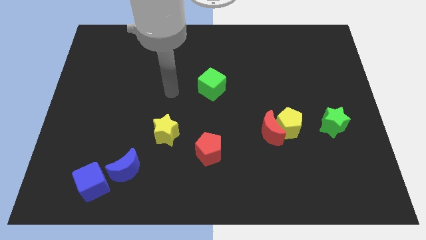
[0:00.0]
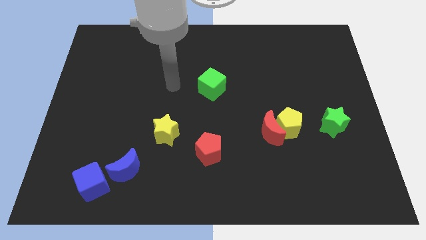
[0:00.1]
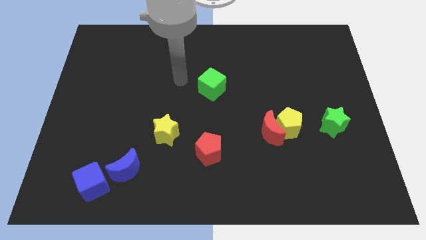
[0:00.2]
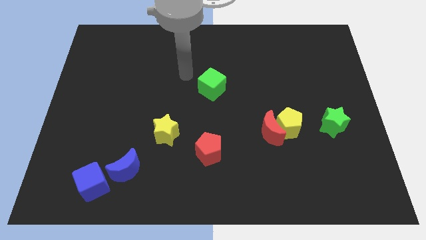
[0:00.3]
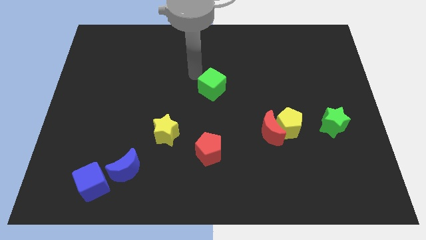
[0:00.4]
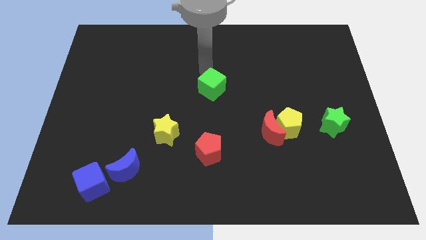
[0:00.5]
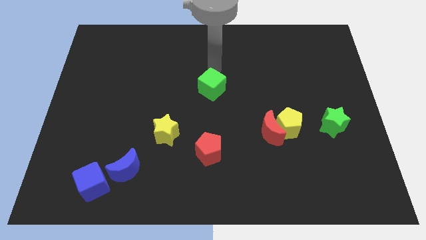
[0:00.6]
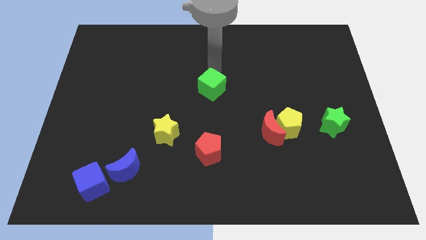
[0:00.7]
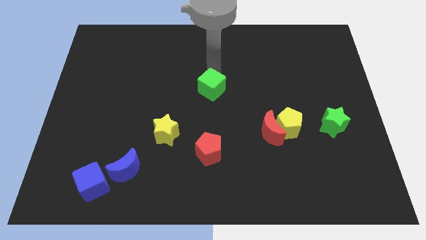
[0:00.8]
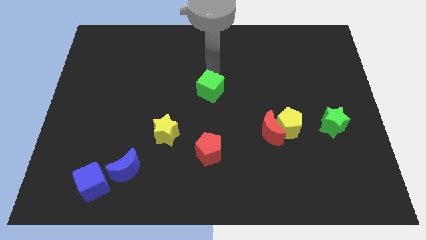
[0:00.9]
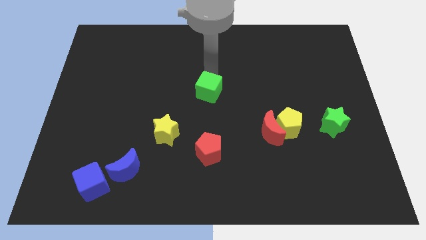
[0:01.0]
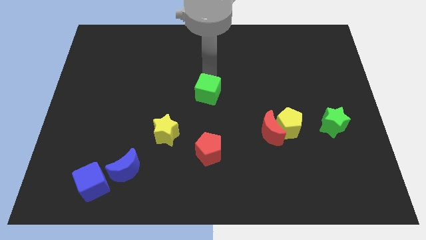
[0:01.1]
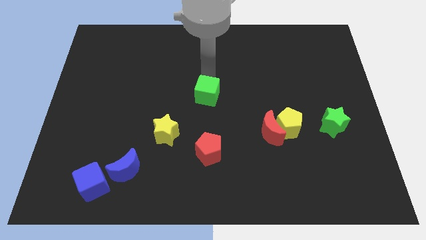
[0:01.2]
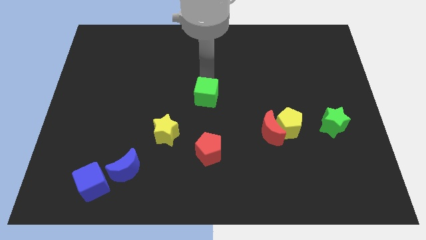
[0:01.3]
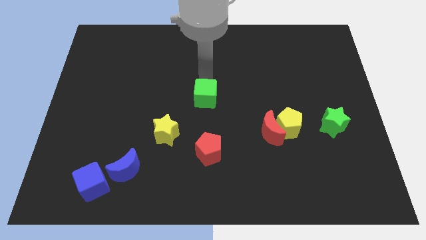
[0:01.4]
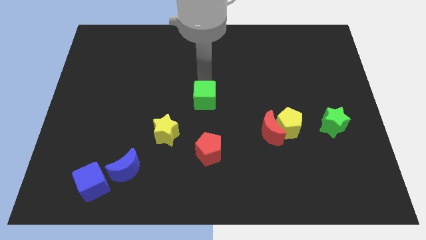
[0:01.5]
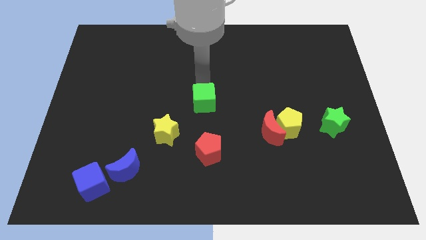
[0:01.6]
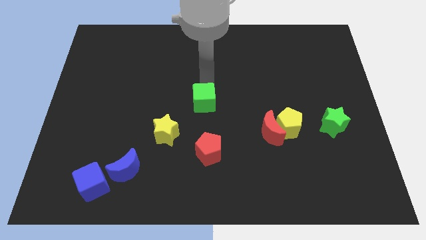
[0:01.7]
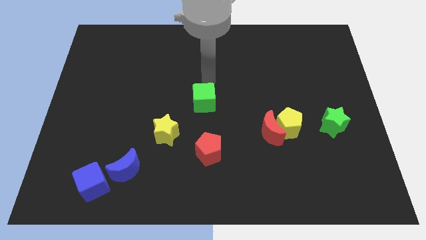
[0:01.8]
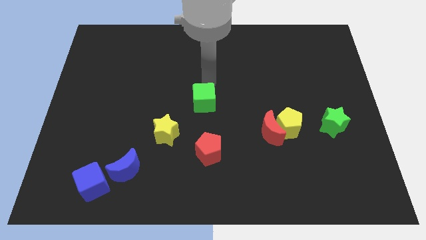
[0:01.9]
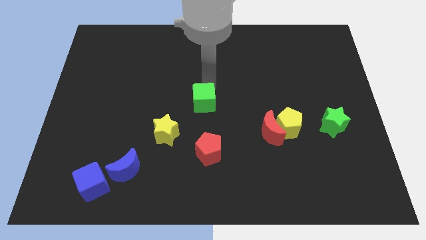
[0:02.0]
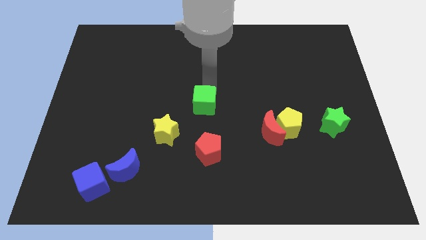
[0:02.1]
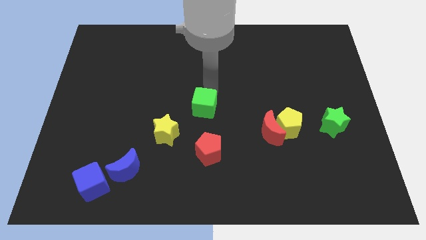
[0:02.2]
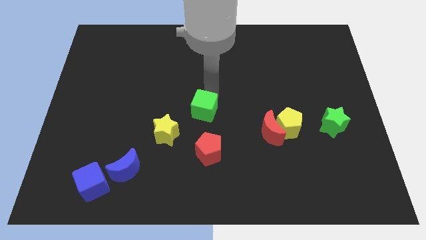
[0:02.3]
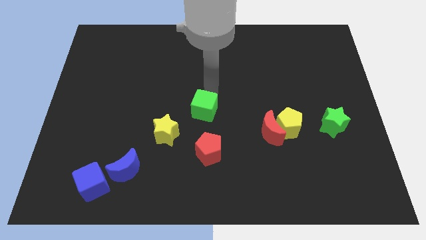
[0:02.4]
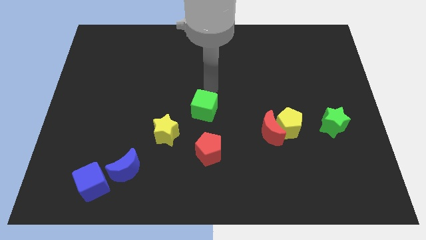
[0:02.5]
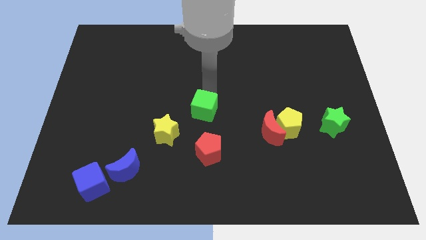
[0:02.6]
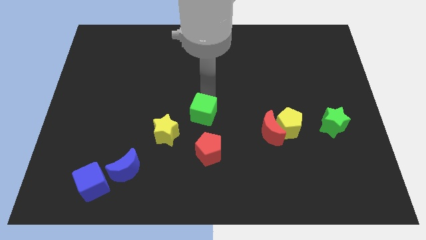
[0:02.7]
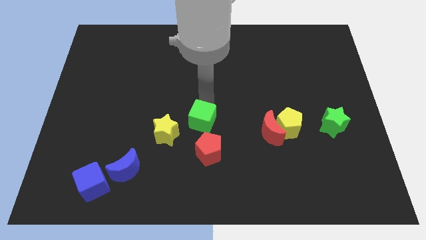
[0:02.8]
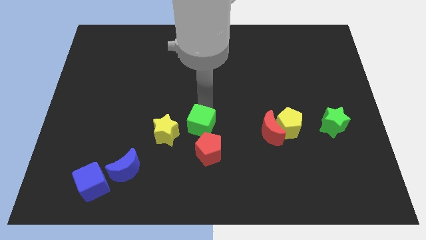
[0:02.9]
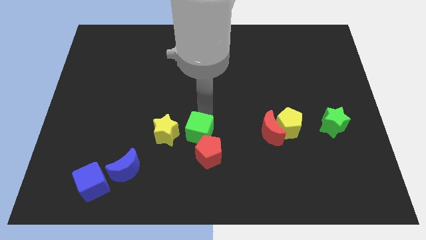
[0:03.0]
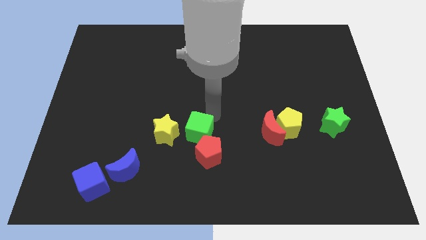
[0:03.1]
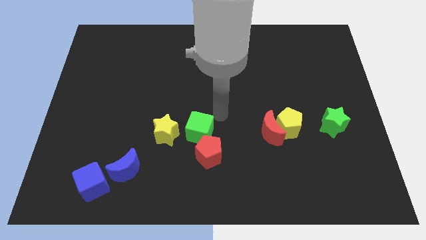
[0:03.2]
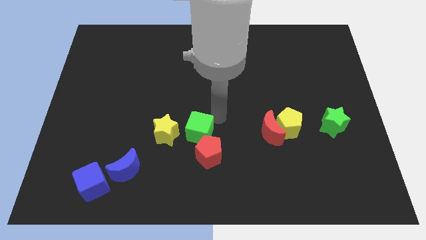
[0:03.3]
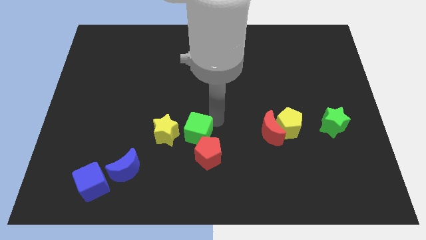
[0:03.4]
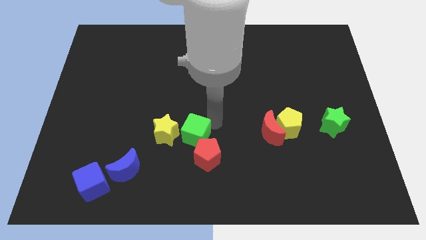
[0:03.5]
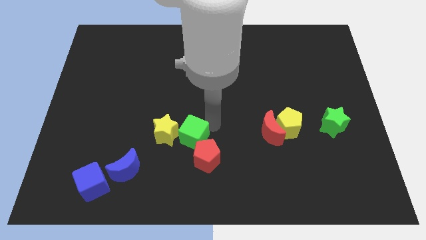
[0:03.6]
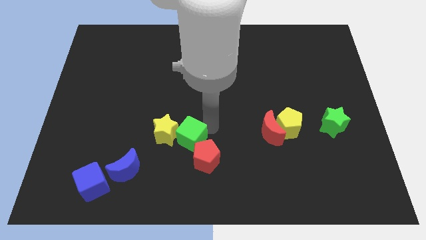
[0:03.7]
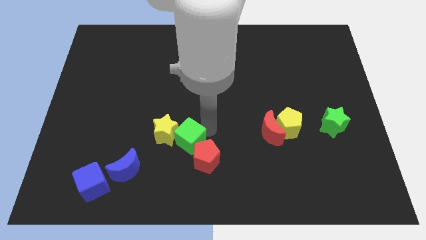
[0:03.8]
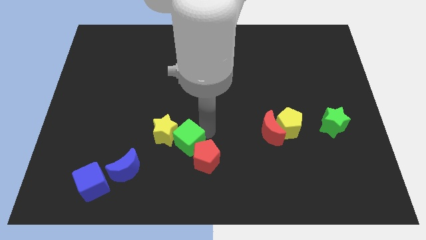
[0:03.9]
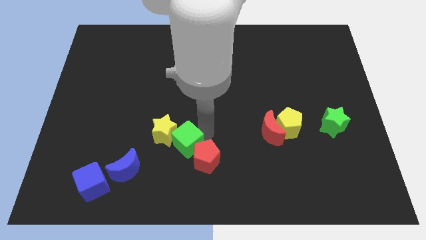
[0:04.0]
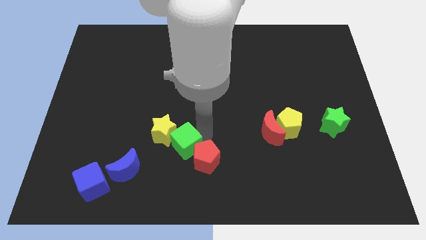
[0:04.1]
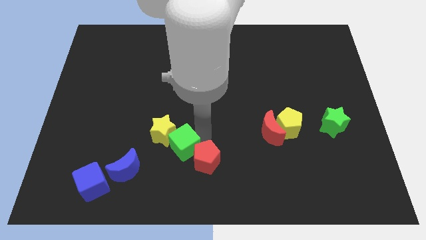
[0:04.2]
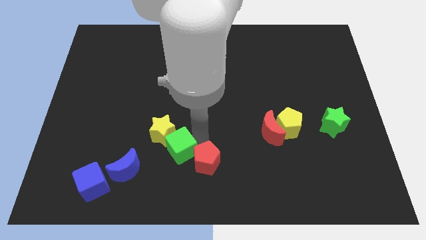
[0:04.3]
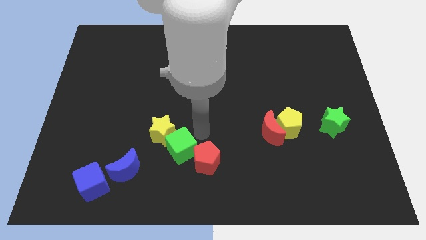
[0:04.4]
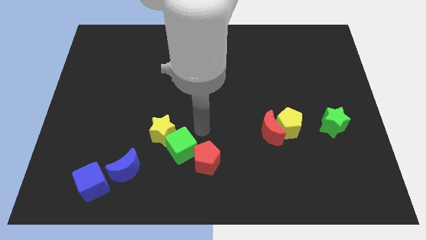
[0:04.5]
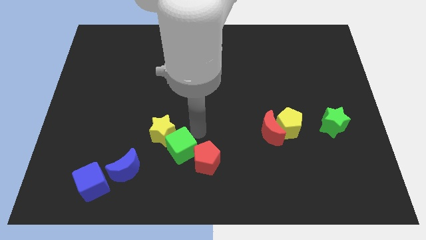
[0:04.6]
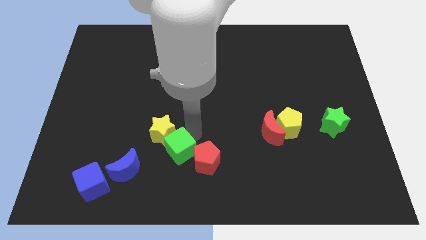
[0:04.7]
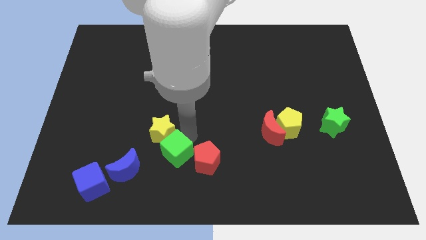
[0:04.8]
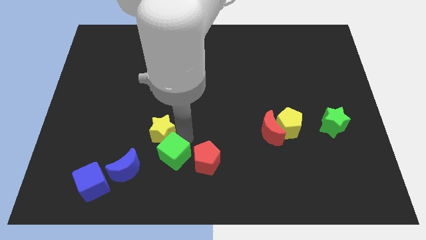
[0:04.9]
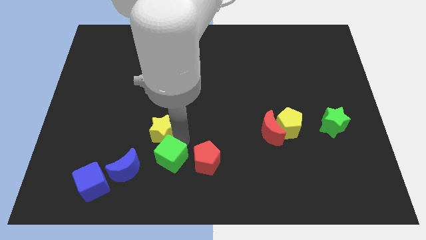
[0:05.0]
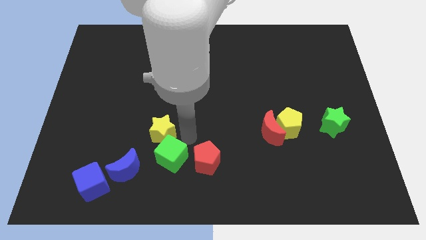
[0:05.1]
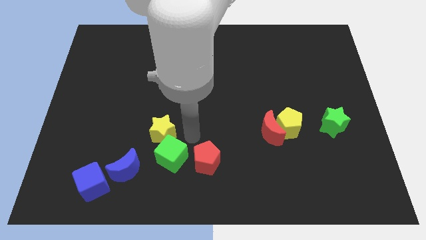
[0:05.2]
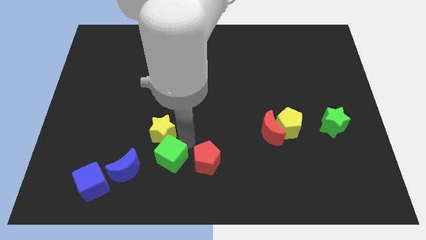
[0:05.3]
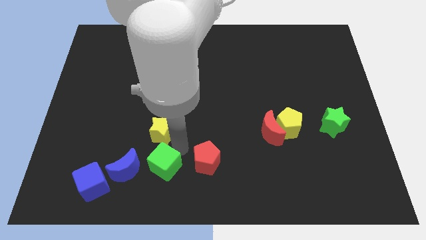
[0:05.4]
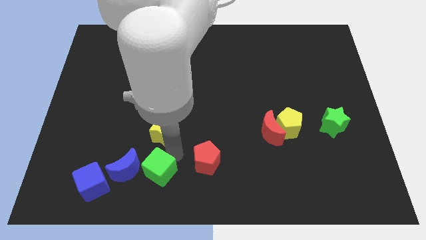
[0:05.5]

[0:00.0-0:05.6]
put the green cube just right of the blue cube
